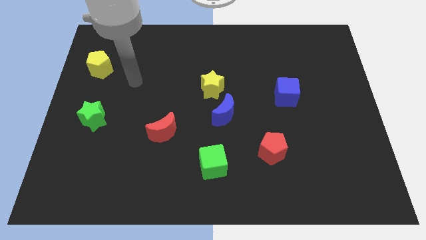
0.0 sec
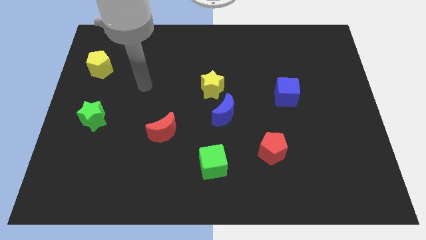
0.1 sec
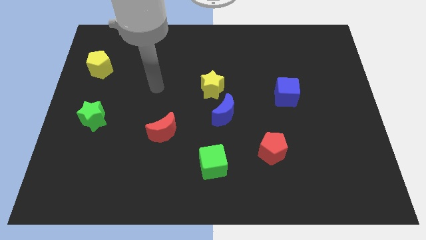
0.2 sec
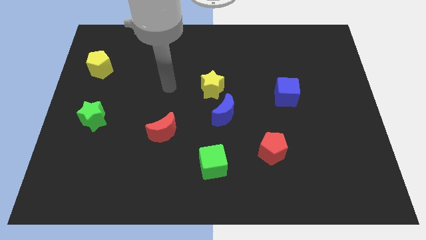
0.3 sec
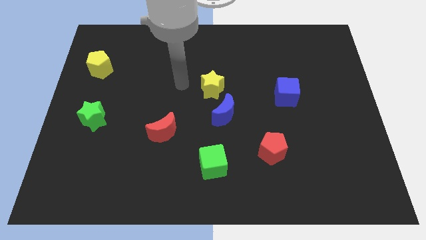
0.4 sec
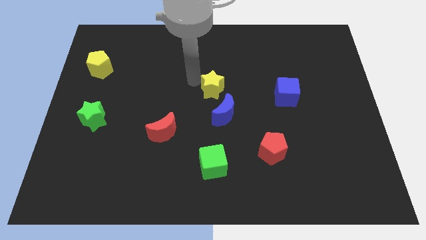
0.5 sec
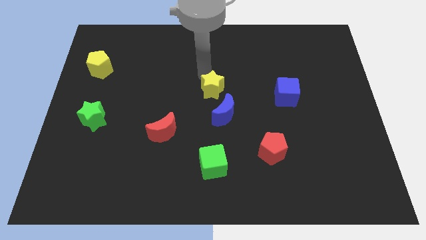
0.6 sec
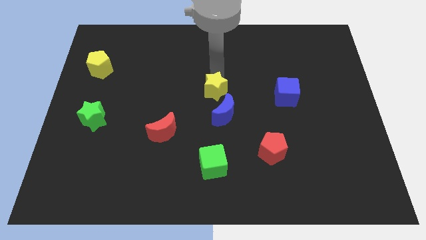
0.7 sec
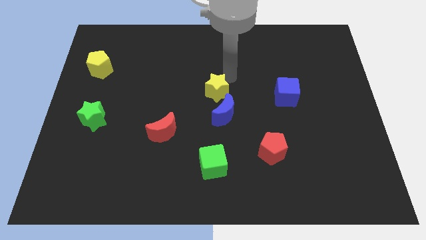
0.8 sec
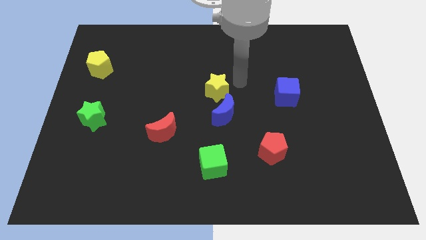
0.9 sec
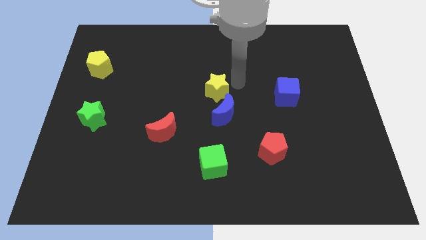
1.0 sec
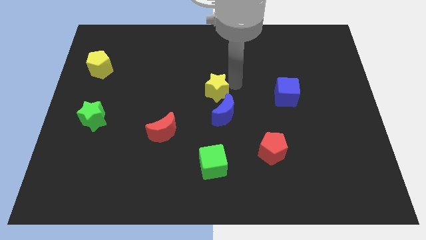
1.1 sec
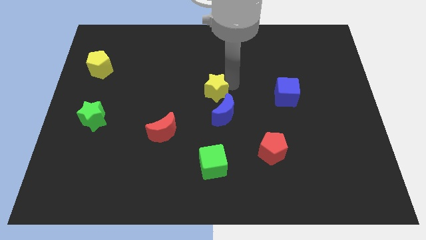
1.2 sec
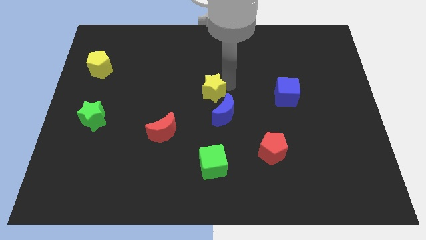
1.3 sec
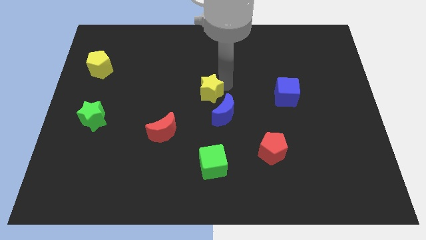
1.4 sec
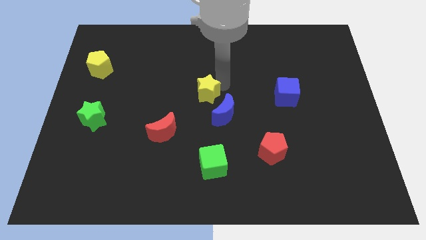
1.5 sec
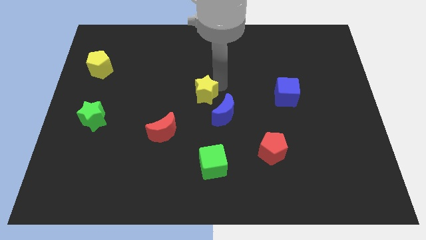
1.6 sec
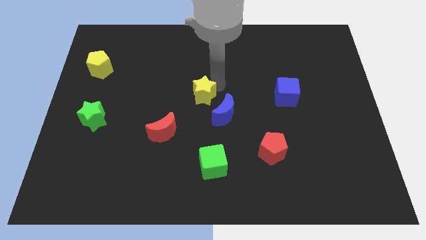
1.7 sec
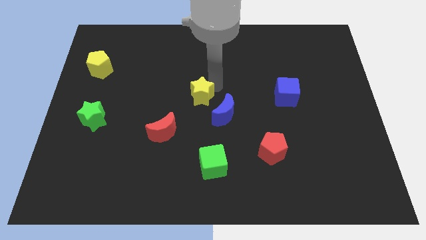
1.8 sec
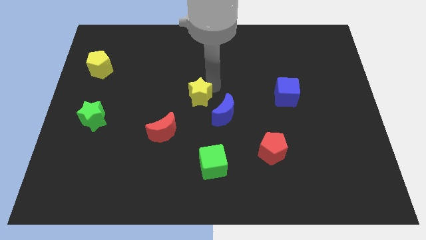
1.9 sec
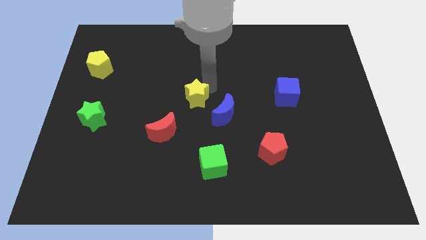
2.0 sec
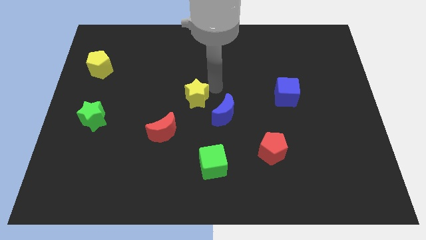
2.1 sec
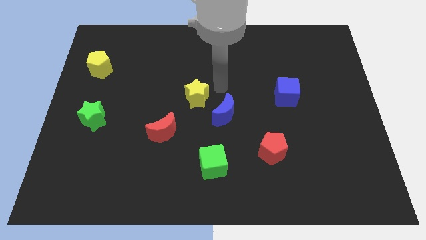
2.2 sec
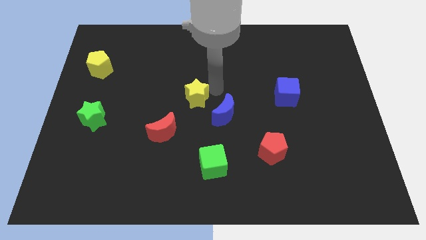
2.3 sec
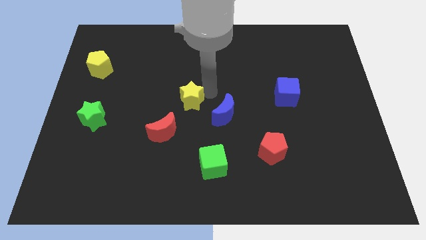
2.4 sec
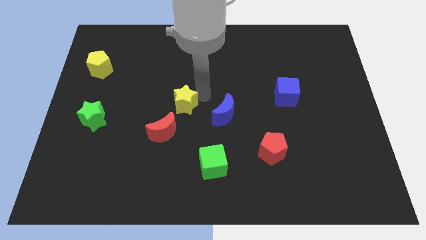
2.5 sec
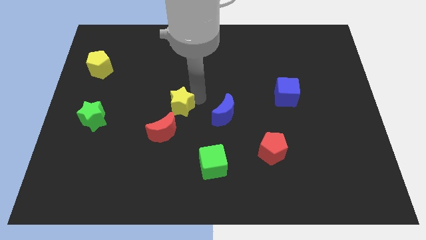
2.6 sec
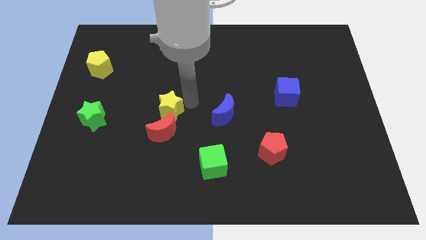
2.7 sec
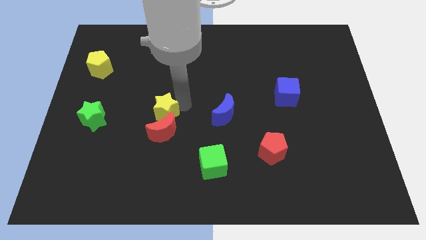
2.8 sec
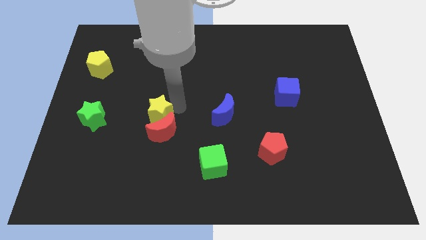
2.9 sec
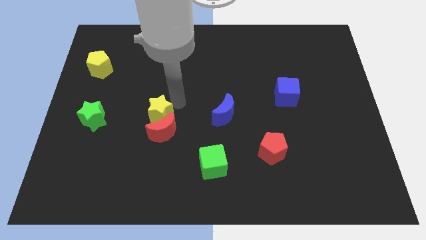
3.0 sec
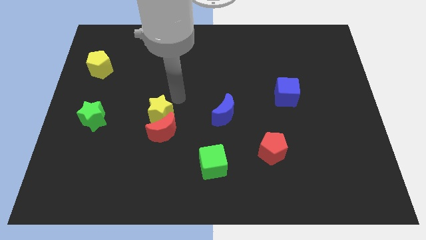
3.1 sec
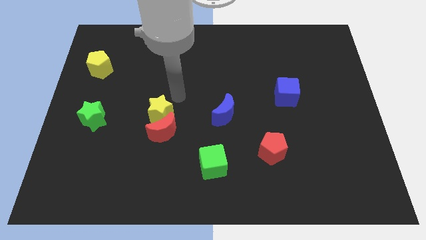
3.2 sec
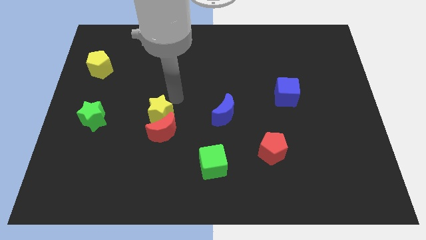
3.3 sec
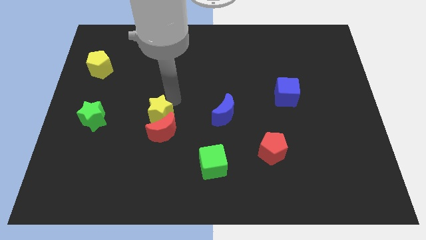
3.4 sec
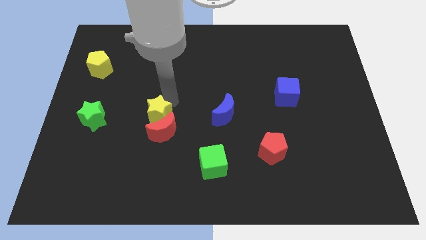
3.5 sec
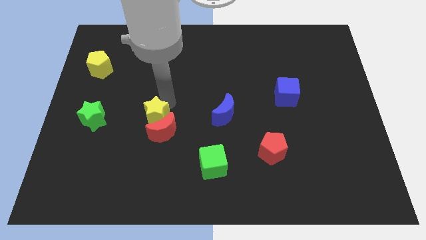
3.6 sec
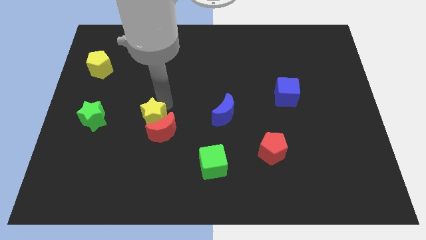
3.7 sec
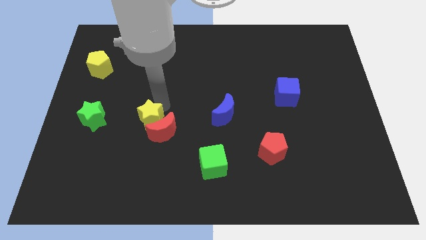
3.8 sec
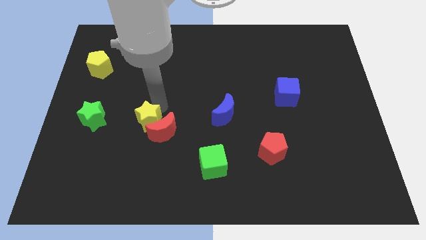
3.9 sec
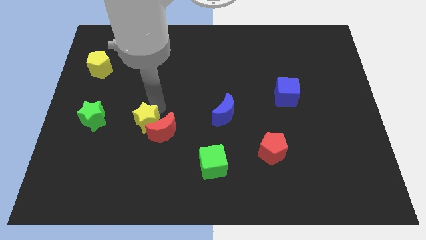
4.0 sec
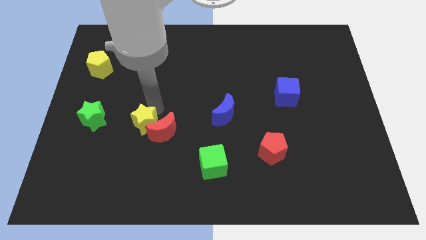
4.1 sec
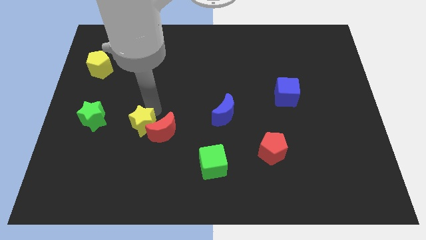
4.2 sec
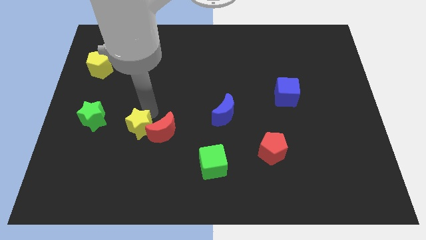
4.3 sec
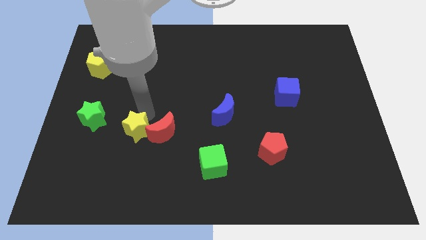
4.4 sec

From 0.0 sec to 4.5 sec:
move the yellow star down and to the left

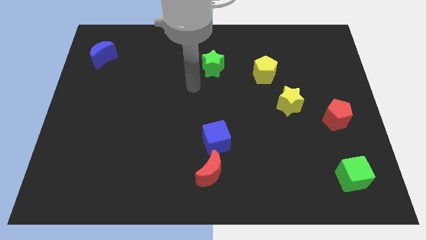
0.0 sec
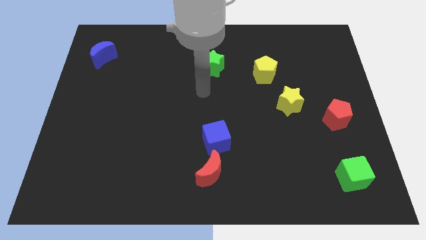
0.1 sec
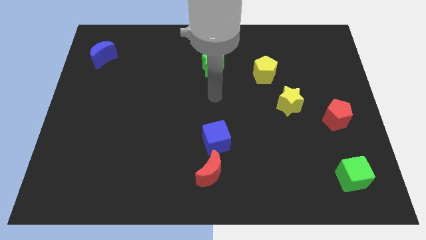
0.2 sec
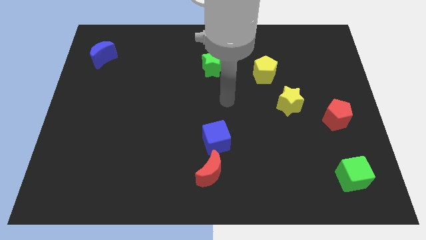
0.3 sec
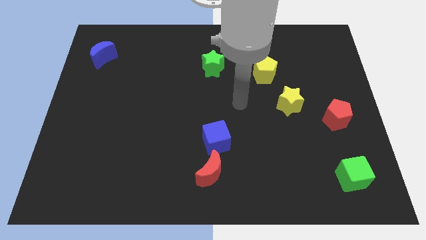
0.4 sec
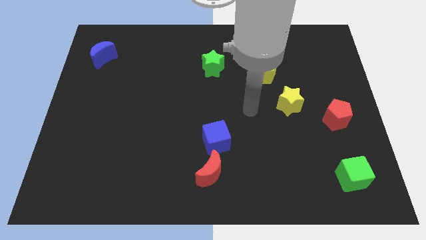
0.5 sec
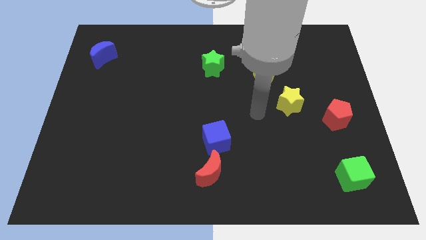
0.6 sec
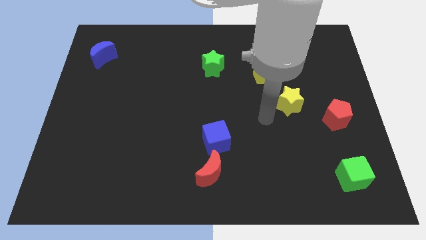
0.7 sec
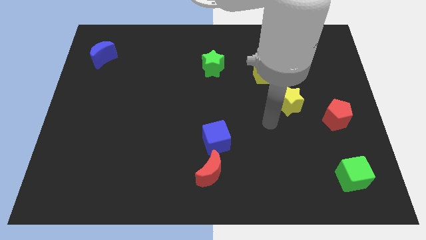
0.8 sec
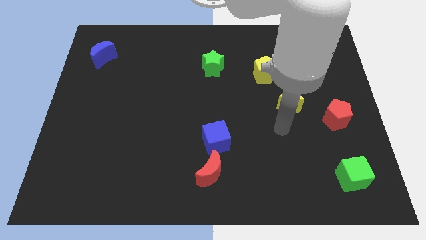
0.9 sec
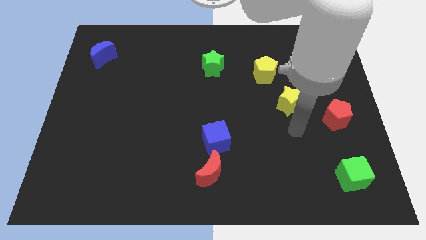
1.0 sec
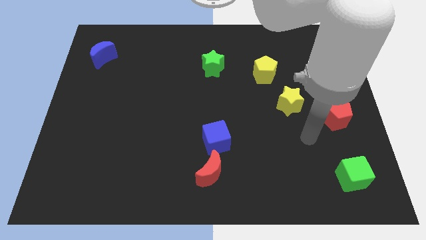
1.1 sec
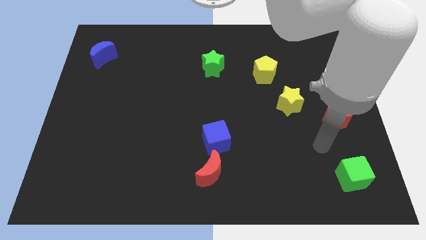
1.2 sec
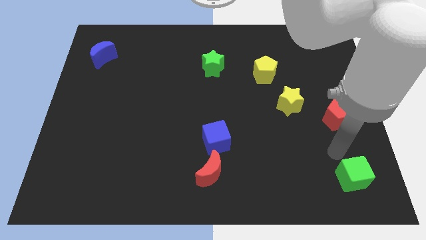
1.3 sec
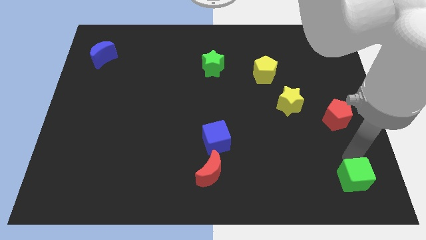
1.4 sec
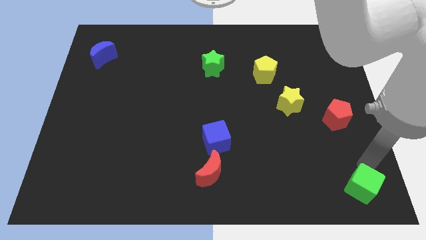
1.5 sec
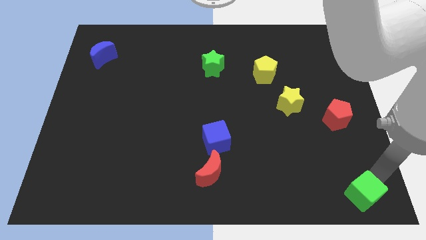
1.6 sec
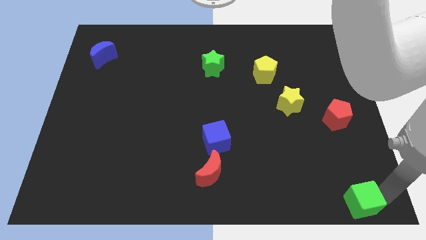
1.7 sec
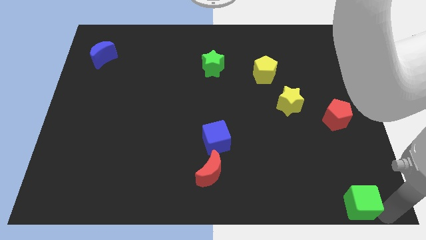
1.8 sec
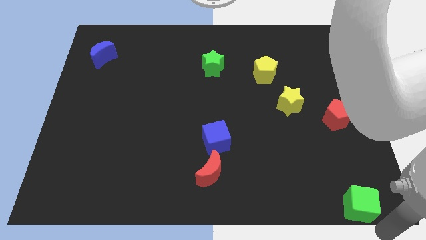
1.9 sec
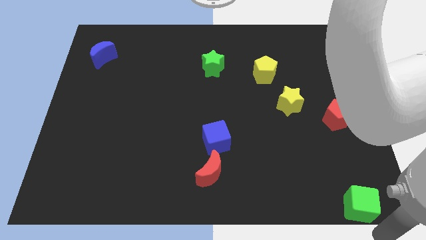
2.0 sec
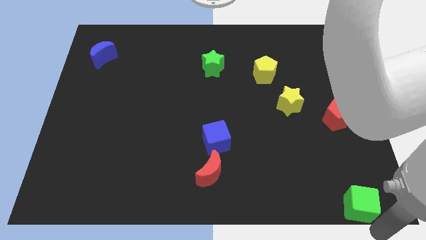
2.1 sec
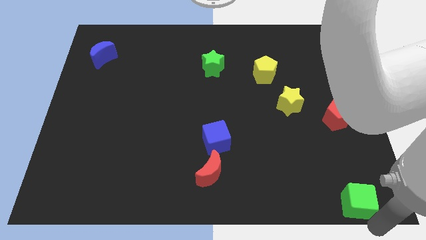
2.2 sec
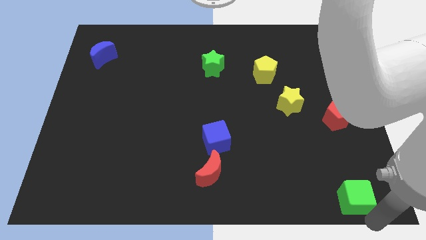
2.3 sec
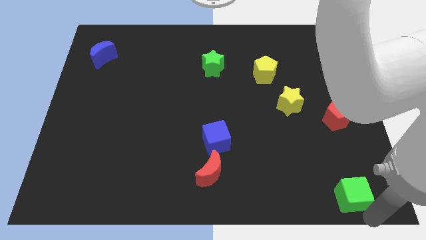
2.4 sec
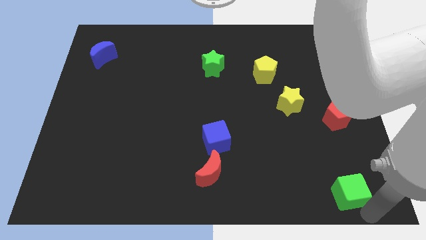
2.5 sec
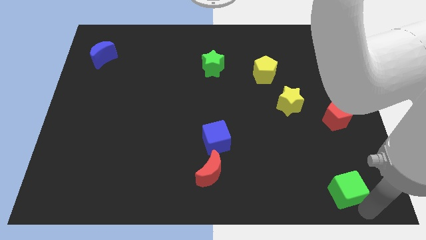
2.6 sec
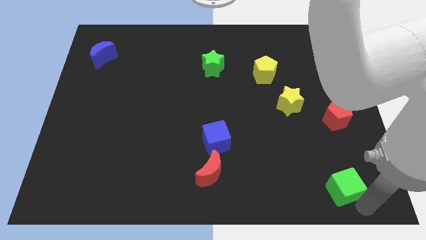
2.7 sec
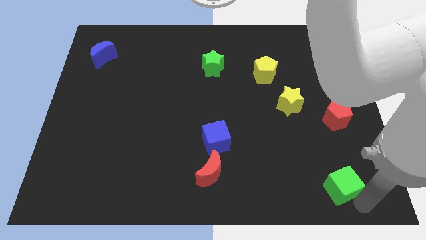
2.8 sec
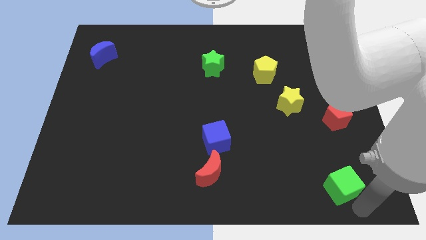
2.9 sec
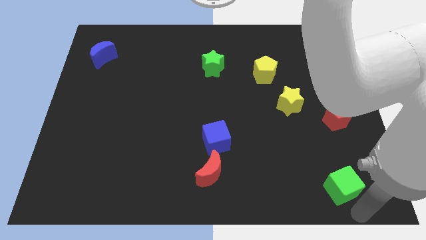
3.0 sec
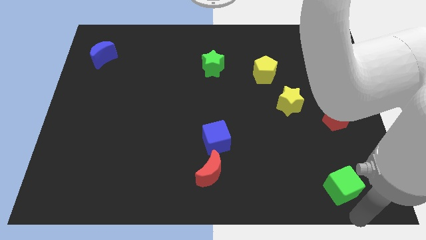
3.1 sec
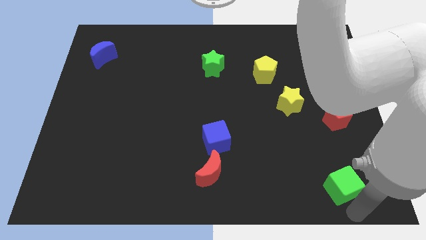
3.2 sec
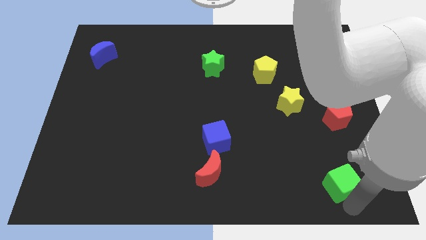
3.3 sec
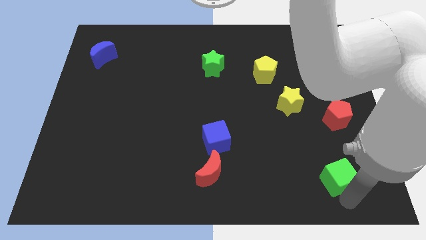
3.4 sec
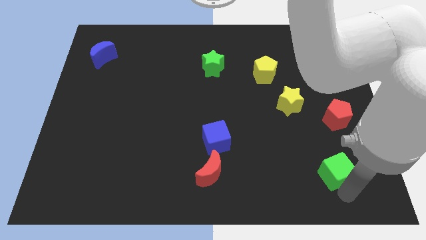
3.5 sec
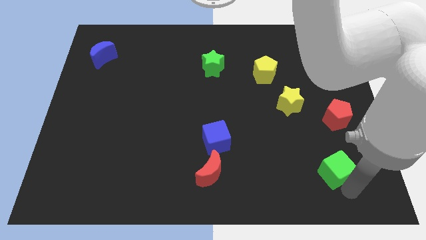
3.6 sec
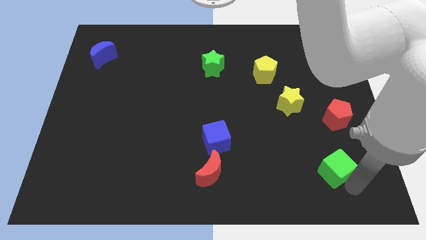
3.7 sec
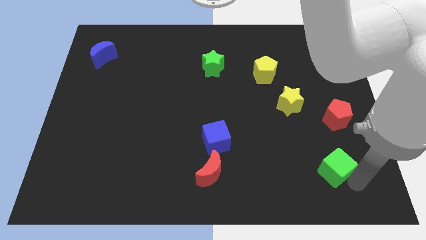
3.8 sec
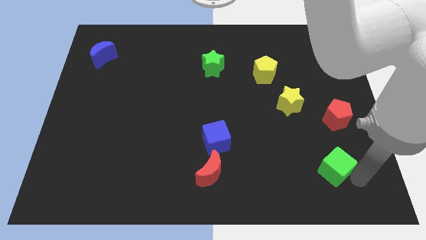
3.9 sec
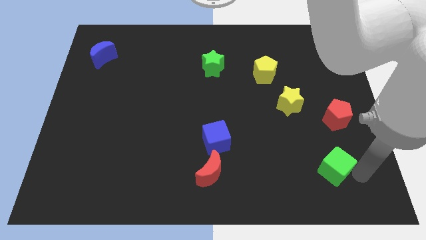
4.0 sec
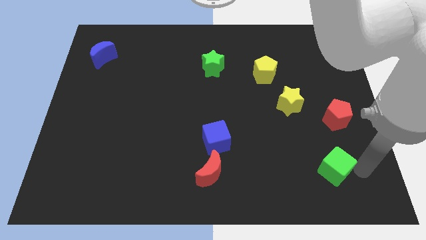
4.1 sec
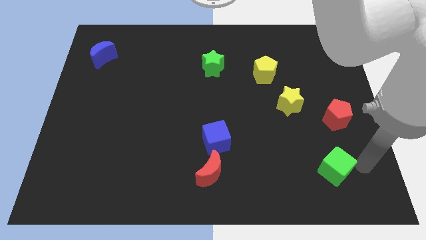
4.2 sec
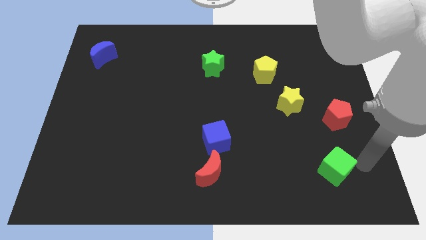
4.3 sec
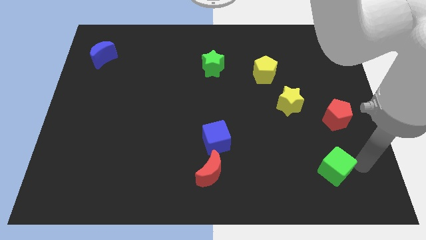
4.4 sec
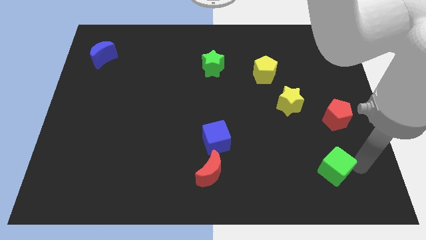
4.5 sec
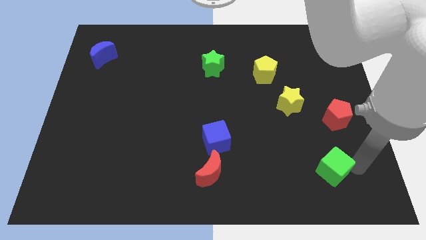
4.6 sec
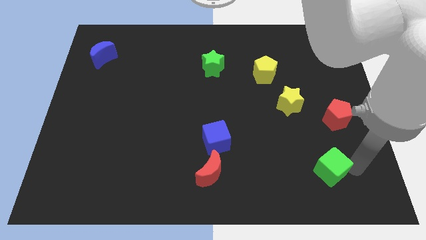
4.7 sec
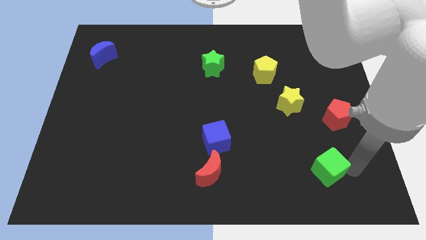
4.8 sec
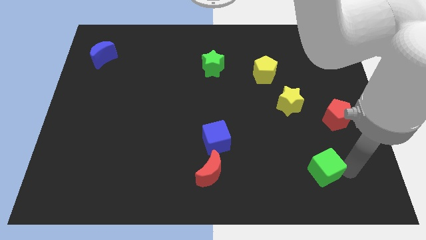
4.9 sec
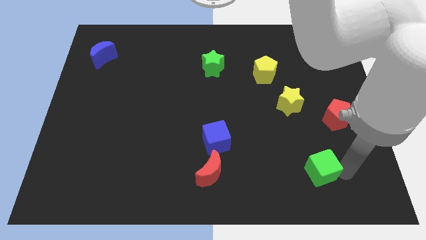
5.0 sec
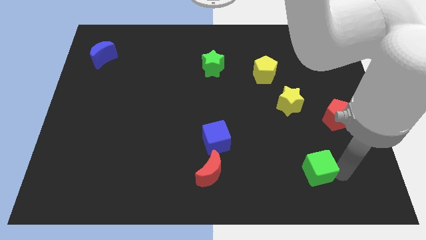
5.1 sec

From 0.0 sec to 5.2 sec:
move the green cube left a bit
